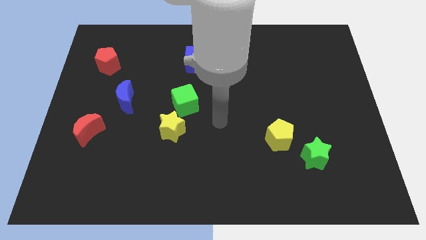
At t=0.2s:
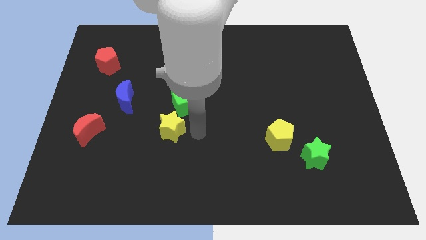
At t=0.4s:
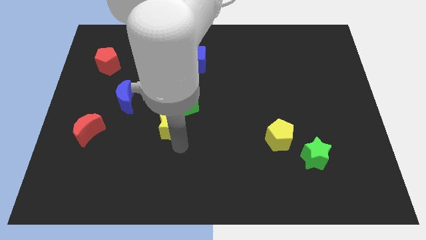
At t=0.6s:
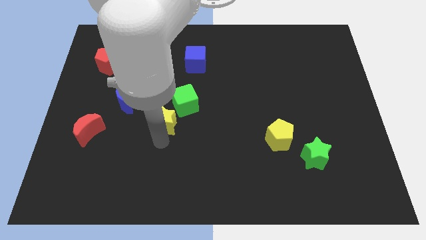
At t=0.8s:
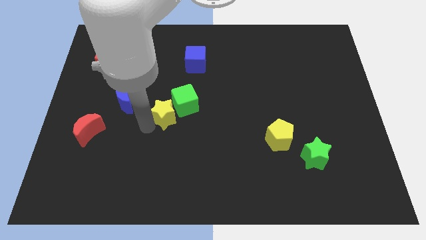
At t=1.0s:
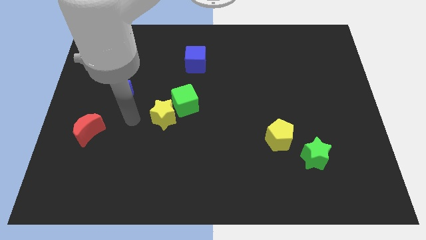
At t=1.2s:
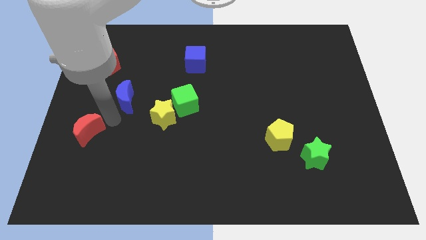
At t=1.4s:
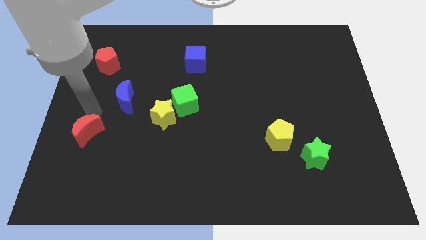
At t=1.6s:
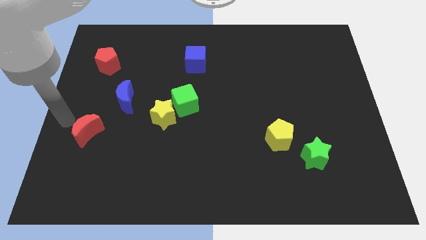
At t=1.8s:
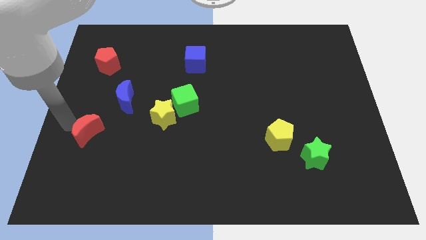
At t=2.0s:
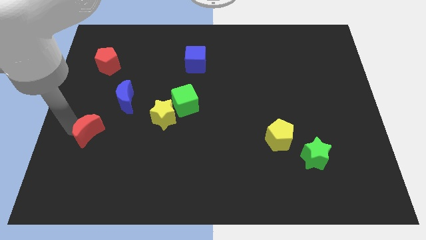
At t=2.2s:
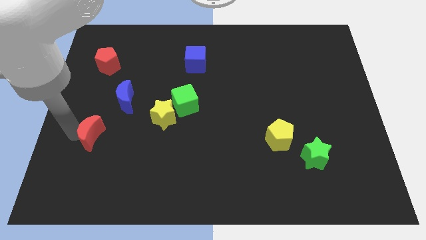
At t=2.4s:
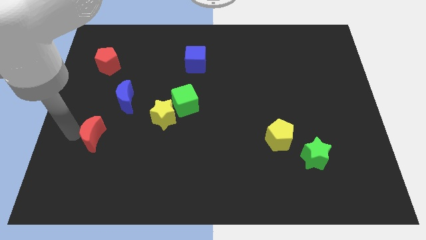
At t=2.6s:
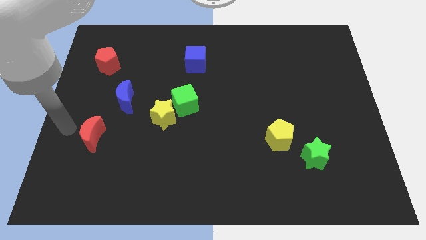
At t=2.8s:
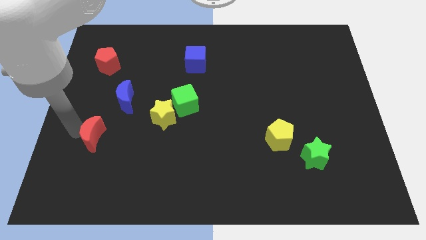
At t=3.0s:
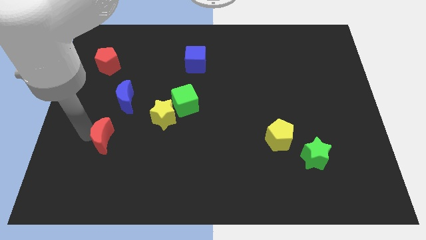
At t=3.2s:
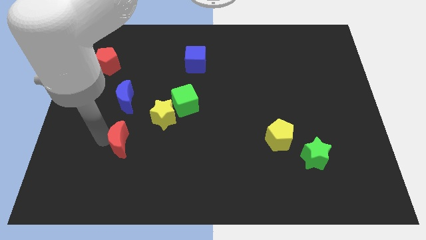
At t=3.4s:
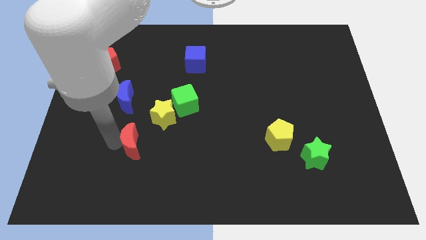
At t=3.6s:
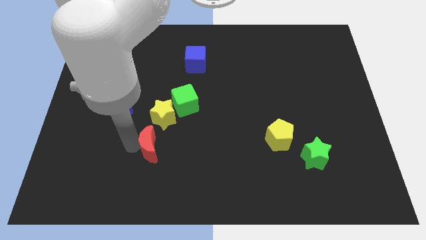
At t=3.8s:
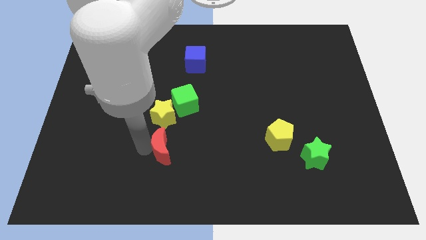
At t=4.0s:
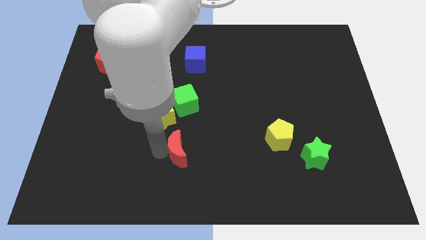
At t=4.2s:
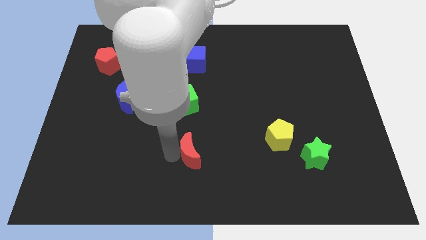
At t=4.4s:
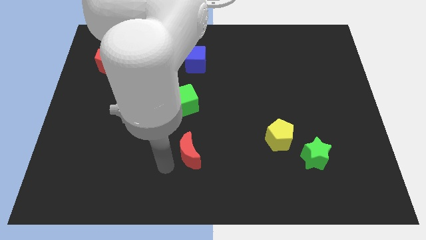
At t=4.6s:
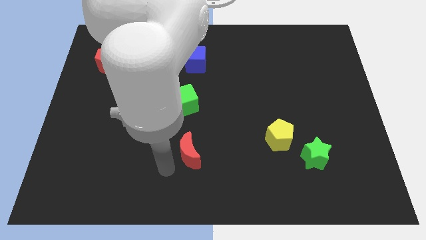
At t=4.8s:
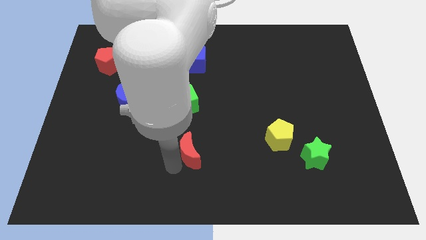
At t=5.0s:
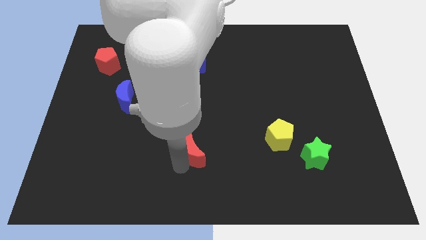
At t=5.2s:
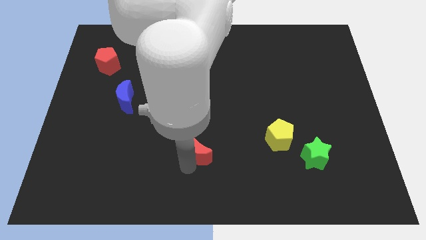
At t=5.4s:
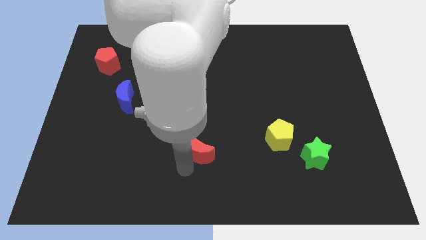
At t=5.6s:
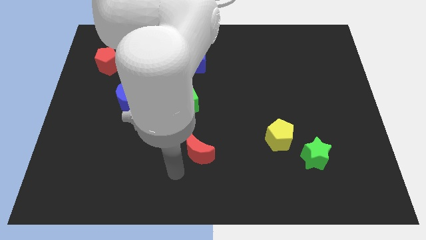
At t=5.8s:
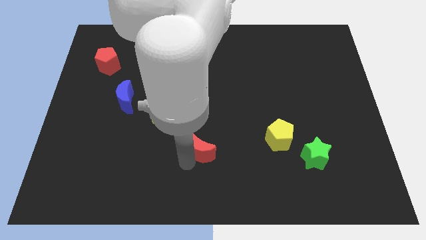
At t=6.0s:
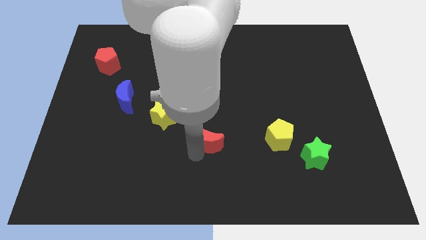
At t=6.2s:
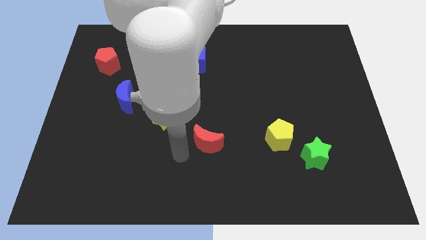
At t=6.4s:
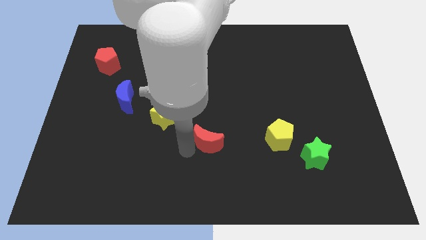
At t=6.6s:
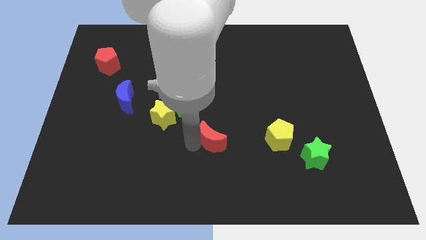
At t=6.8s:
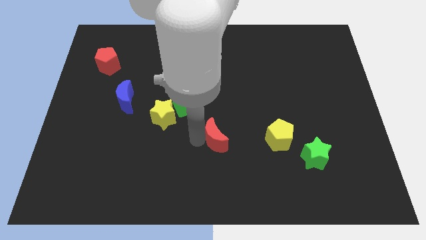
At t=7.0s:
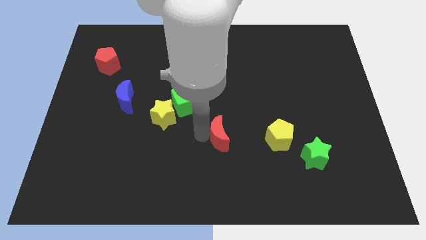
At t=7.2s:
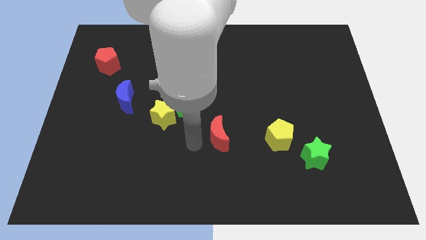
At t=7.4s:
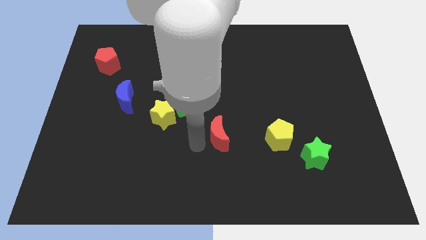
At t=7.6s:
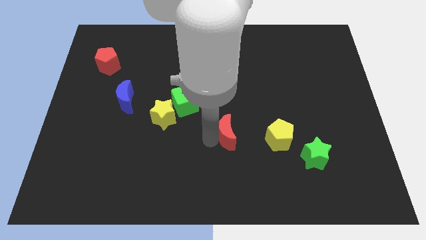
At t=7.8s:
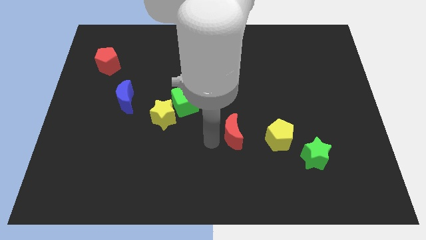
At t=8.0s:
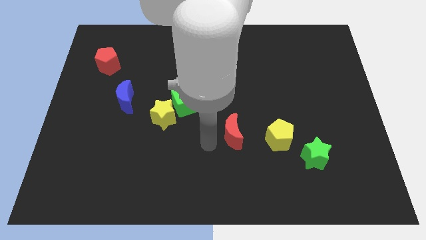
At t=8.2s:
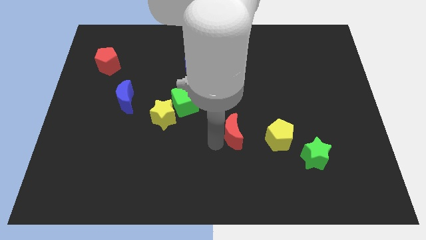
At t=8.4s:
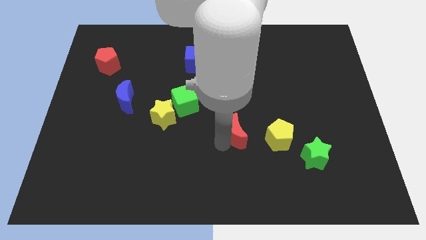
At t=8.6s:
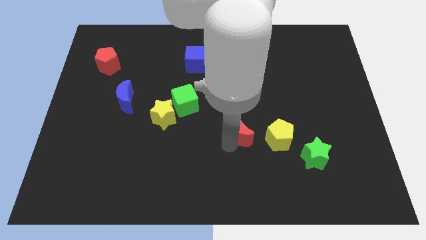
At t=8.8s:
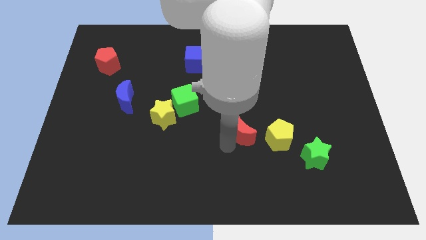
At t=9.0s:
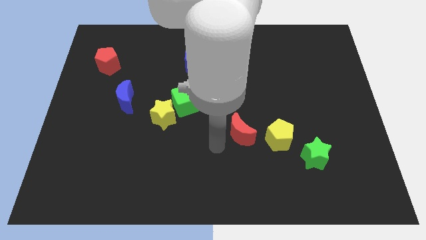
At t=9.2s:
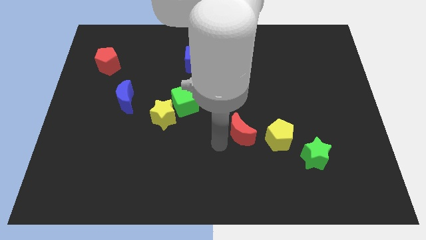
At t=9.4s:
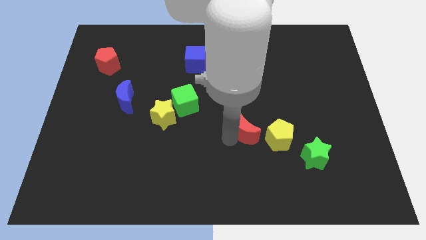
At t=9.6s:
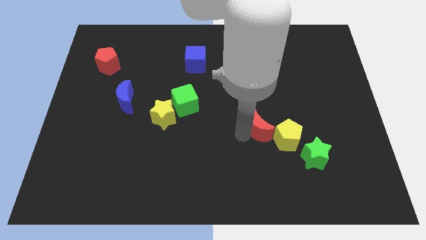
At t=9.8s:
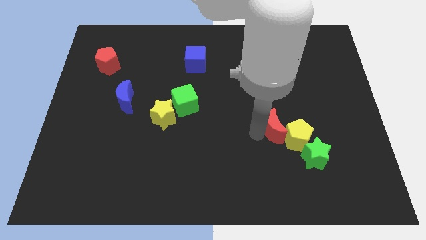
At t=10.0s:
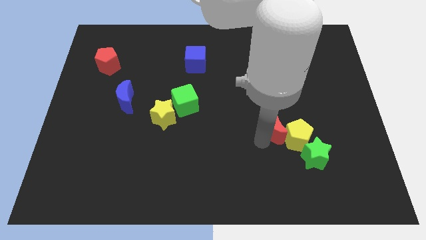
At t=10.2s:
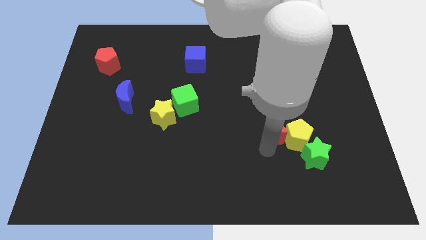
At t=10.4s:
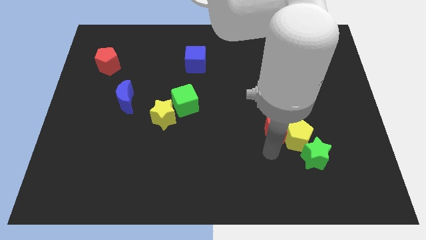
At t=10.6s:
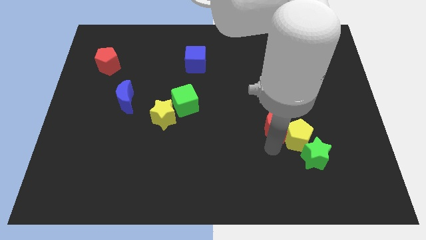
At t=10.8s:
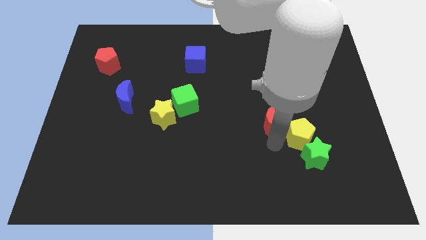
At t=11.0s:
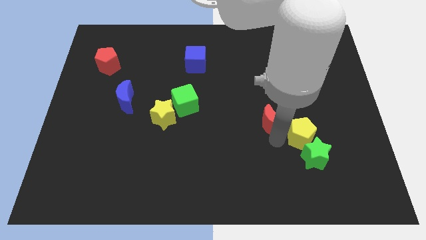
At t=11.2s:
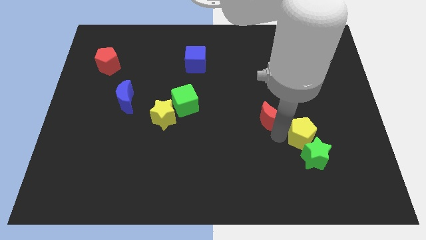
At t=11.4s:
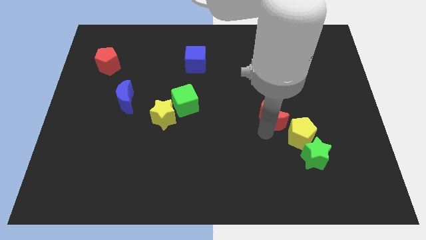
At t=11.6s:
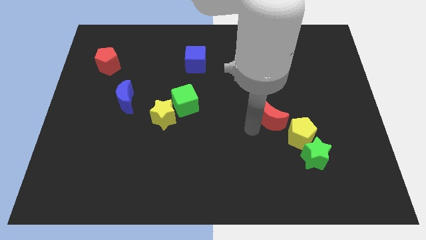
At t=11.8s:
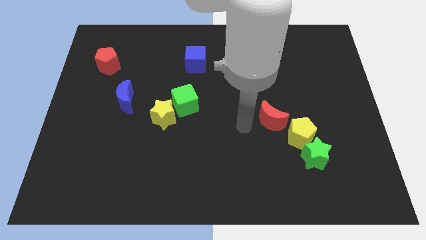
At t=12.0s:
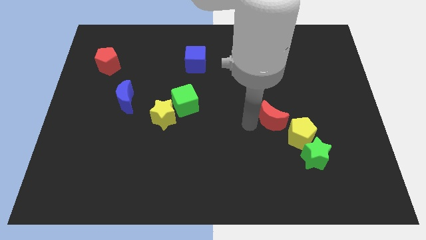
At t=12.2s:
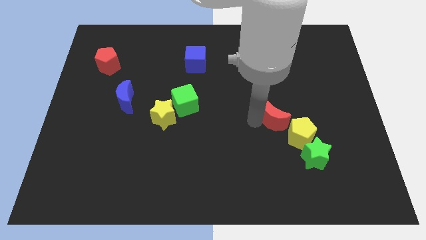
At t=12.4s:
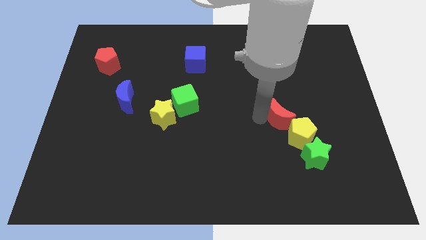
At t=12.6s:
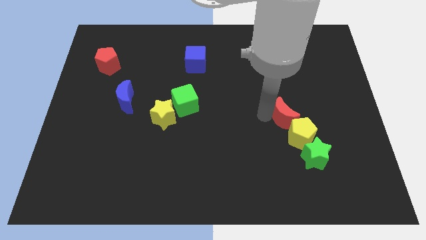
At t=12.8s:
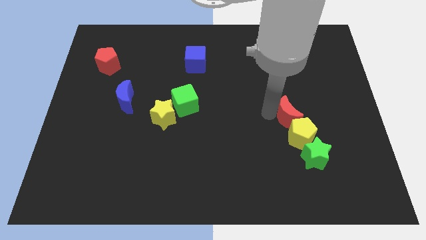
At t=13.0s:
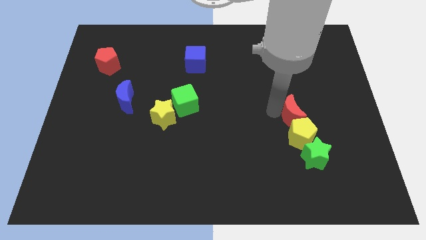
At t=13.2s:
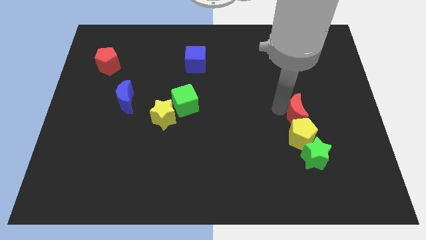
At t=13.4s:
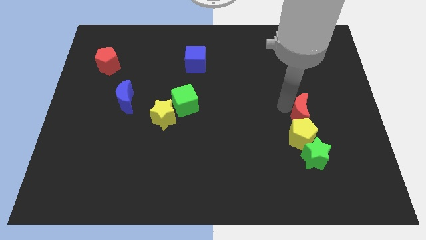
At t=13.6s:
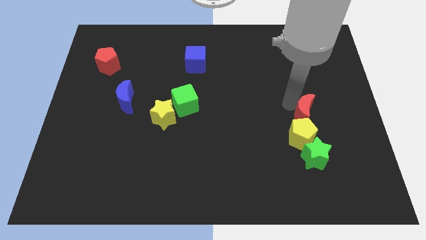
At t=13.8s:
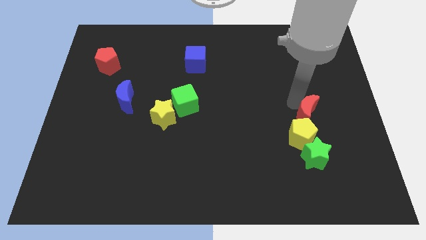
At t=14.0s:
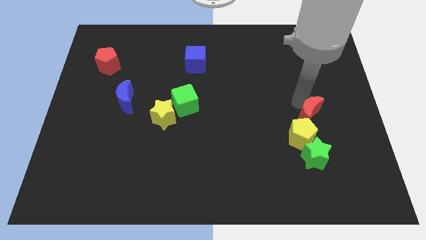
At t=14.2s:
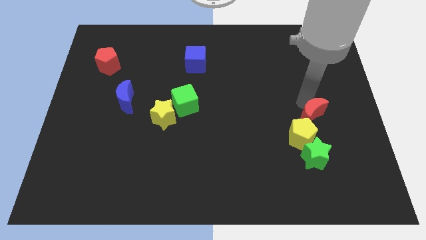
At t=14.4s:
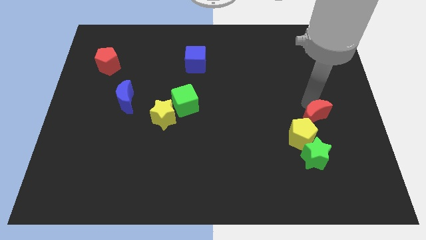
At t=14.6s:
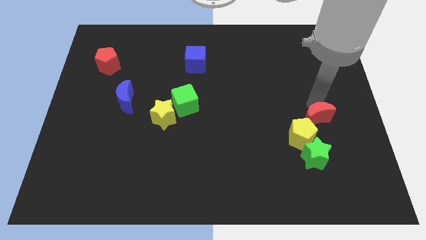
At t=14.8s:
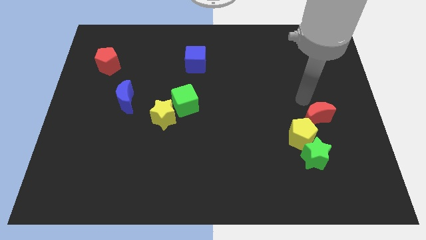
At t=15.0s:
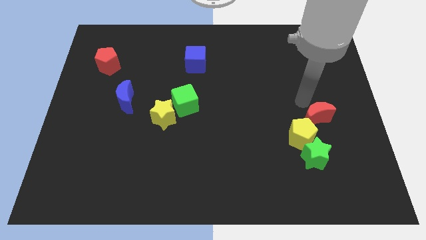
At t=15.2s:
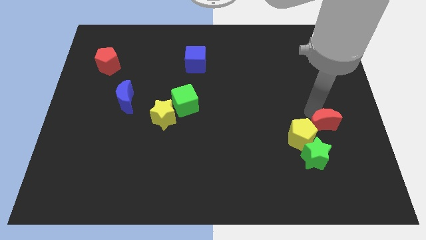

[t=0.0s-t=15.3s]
move the red moon diagonally up and to the right of the green star
